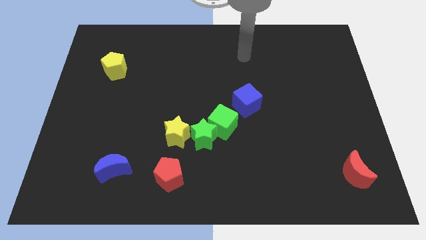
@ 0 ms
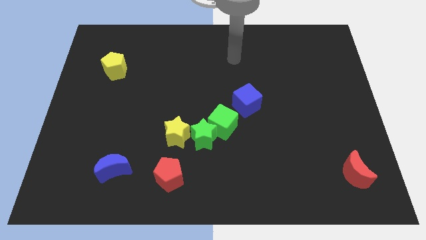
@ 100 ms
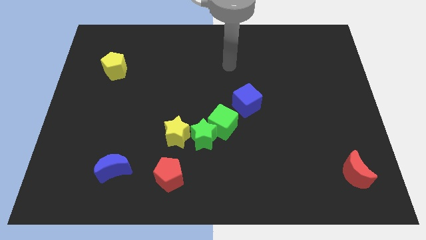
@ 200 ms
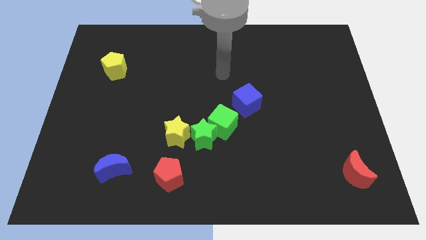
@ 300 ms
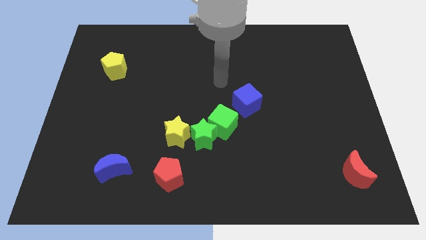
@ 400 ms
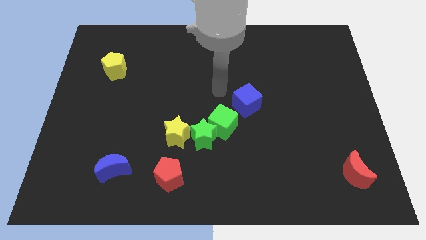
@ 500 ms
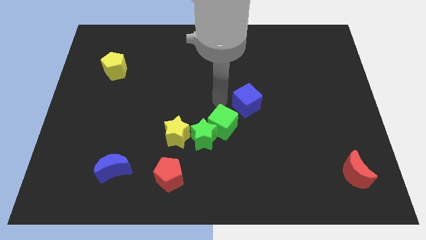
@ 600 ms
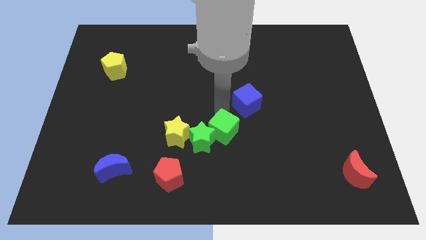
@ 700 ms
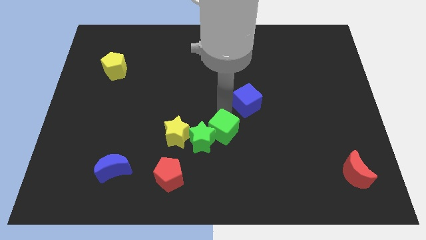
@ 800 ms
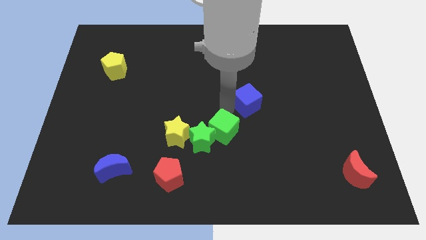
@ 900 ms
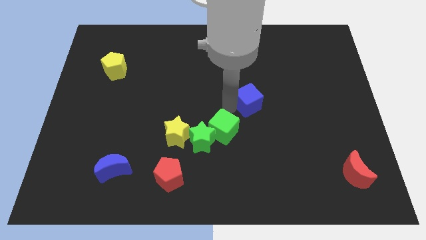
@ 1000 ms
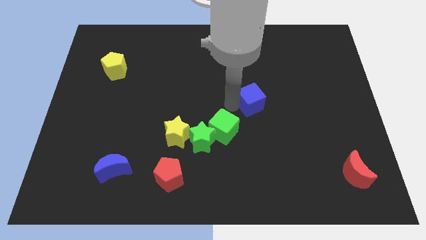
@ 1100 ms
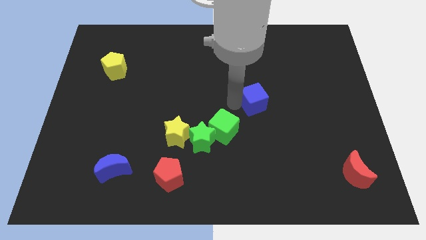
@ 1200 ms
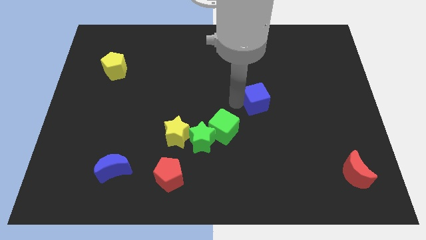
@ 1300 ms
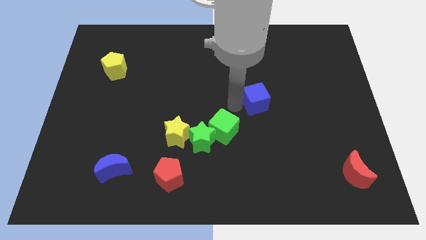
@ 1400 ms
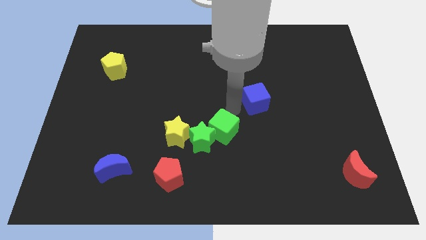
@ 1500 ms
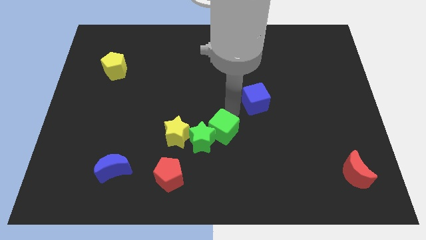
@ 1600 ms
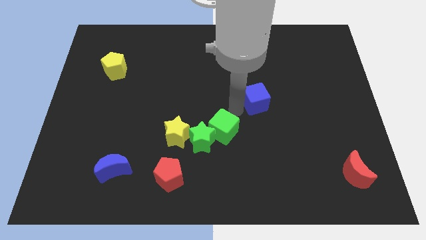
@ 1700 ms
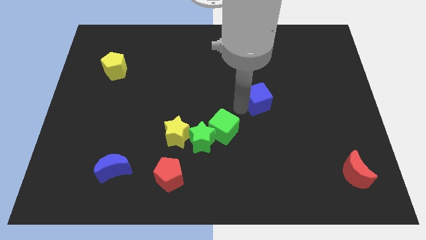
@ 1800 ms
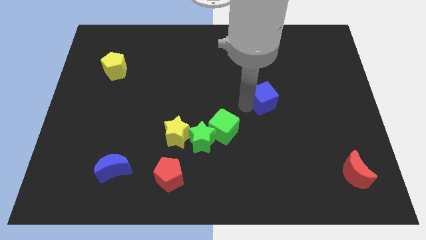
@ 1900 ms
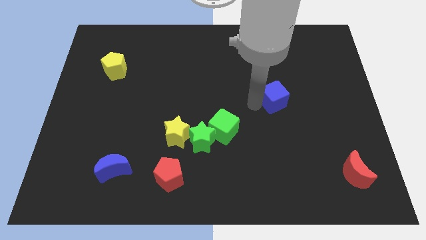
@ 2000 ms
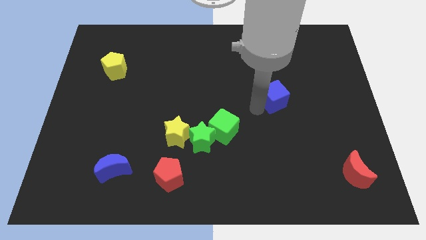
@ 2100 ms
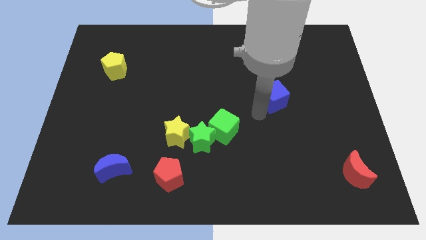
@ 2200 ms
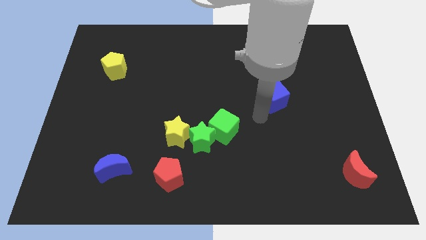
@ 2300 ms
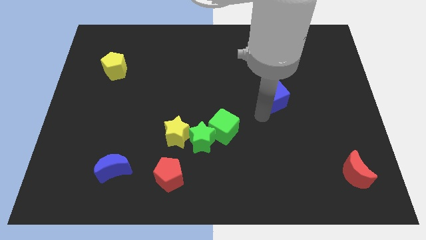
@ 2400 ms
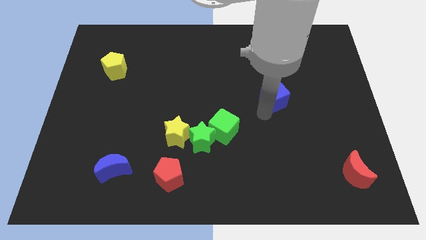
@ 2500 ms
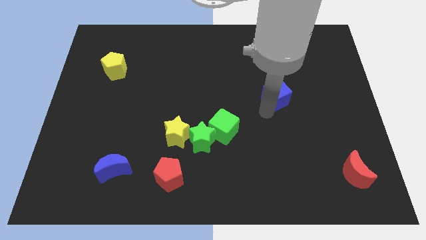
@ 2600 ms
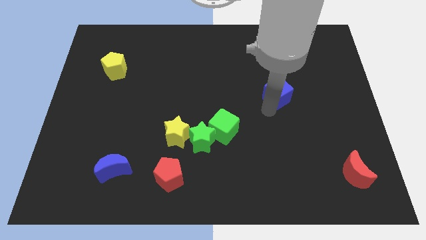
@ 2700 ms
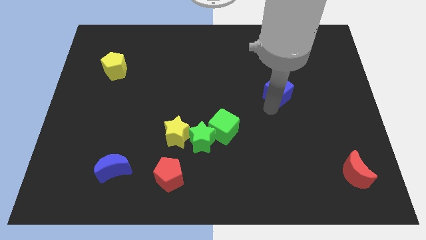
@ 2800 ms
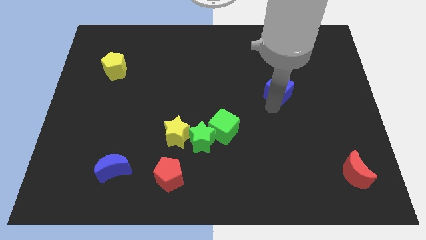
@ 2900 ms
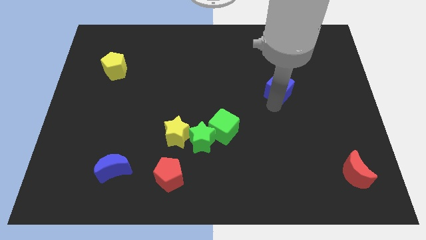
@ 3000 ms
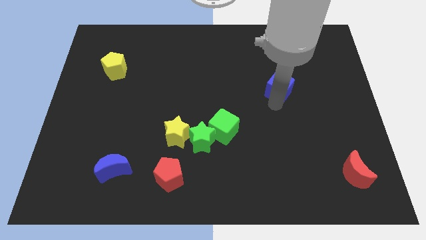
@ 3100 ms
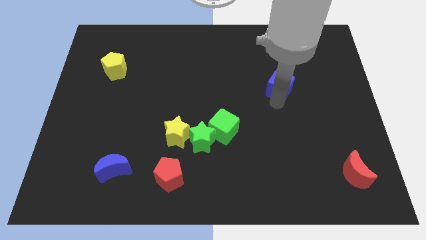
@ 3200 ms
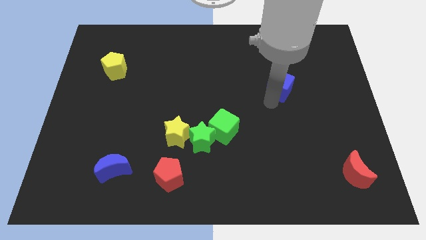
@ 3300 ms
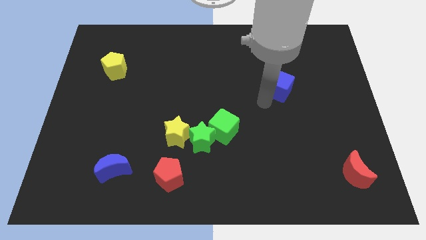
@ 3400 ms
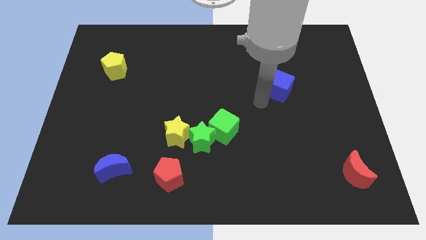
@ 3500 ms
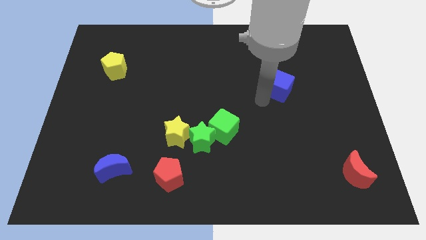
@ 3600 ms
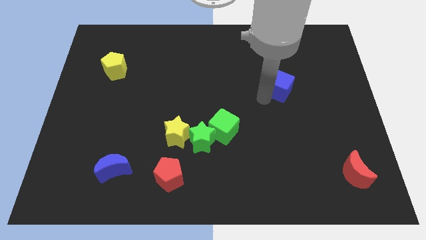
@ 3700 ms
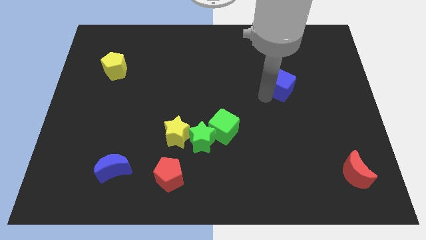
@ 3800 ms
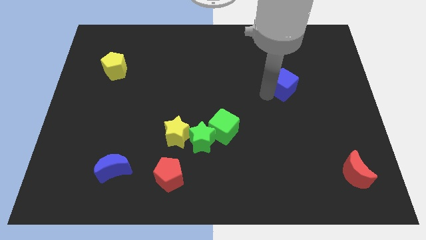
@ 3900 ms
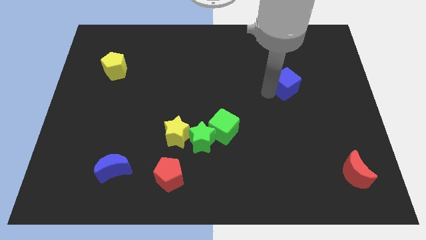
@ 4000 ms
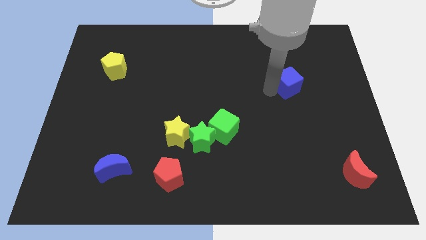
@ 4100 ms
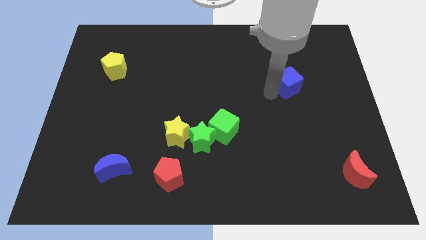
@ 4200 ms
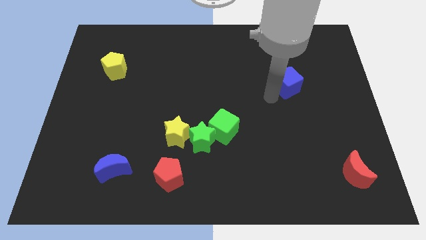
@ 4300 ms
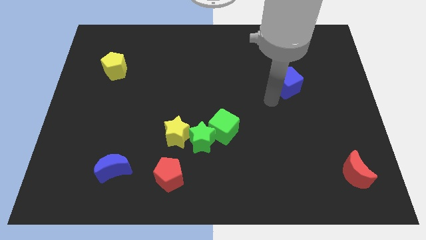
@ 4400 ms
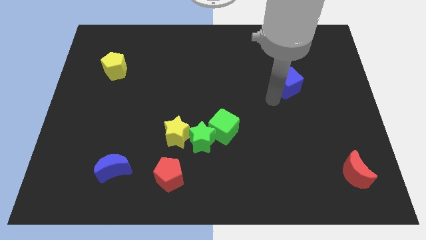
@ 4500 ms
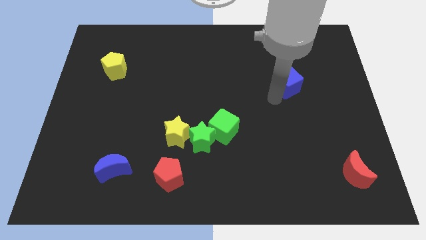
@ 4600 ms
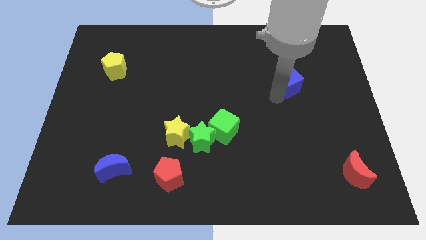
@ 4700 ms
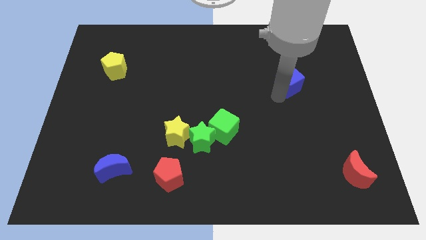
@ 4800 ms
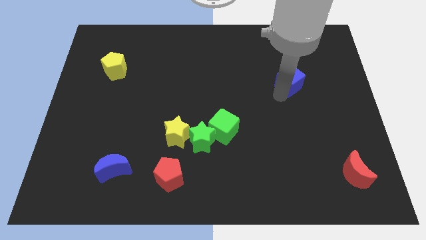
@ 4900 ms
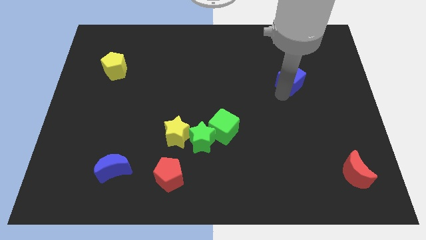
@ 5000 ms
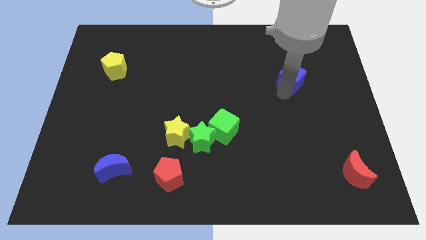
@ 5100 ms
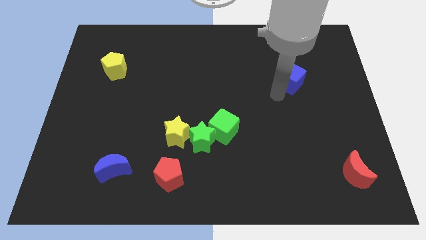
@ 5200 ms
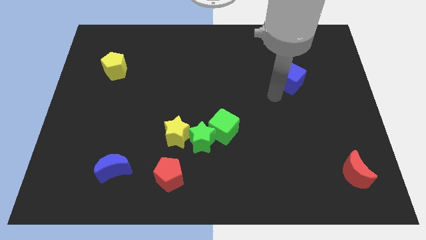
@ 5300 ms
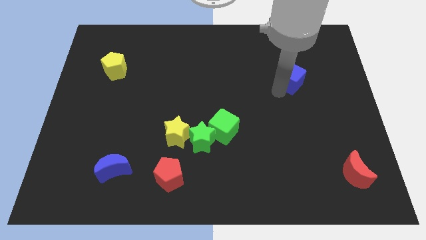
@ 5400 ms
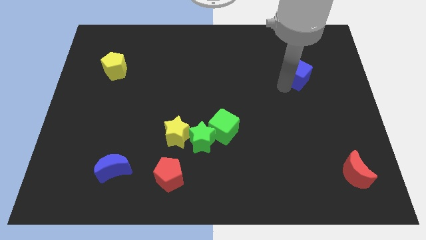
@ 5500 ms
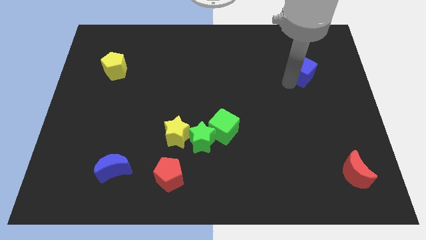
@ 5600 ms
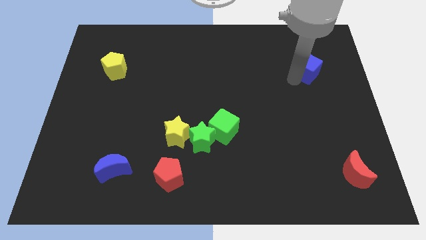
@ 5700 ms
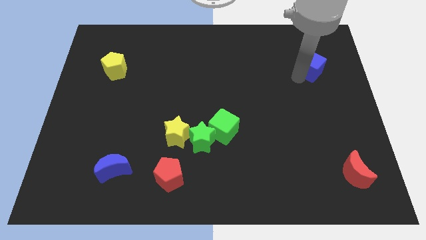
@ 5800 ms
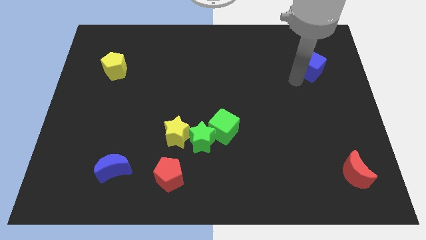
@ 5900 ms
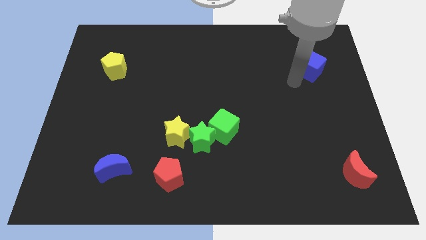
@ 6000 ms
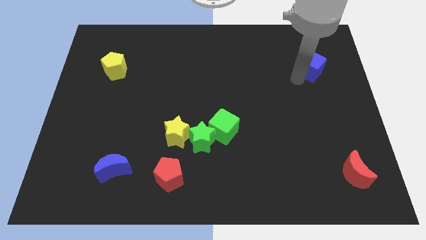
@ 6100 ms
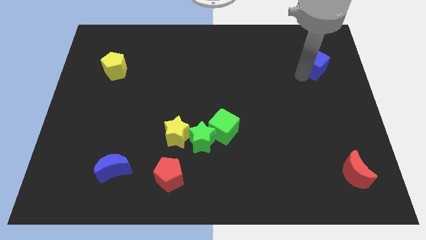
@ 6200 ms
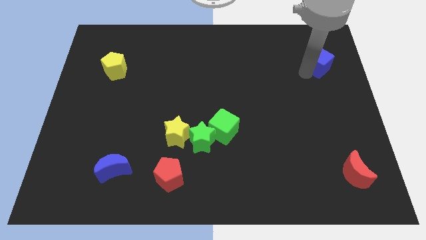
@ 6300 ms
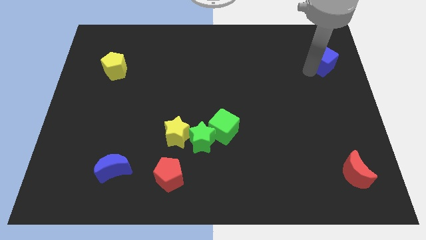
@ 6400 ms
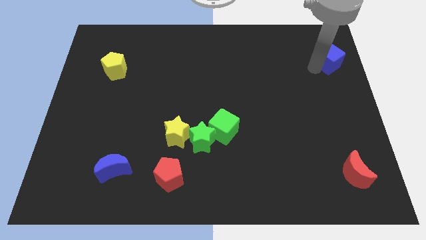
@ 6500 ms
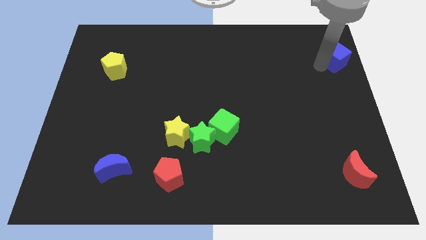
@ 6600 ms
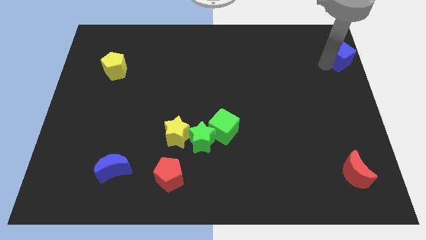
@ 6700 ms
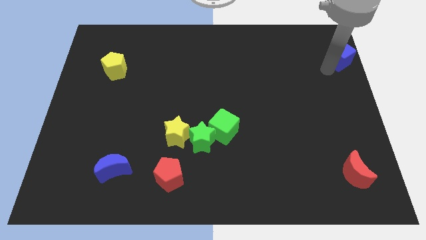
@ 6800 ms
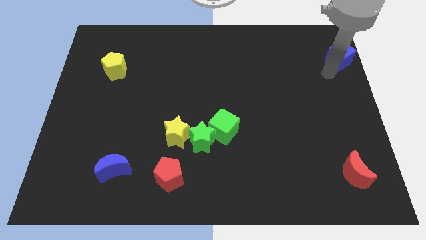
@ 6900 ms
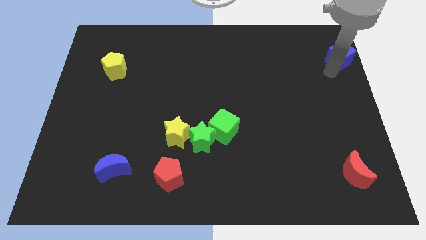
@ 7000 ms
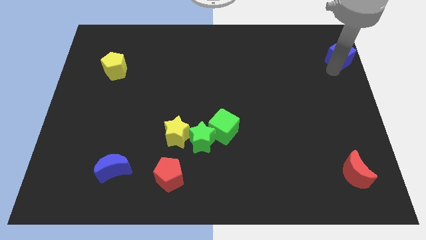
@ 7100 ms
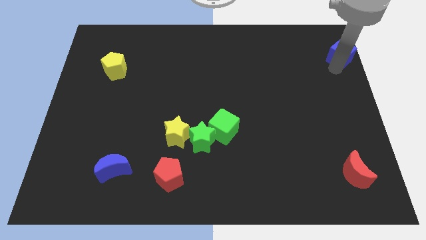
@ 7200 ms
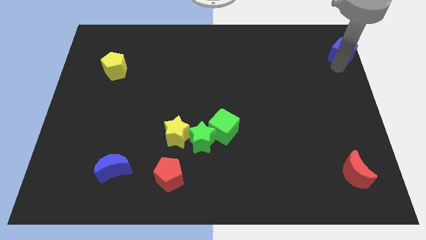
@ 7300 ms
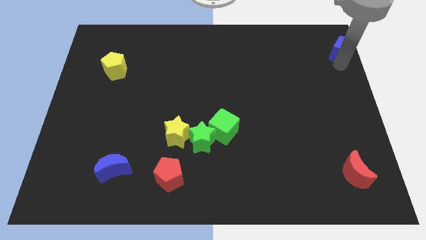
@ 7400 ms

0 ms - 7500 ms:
slide the blue cube to the top right
